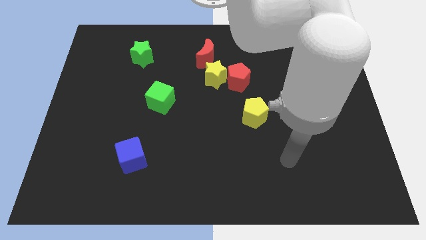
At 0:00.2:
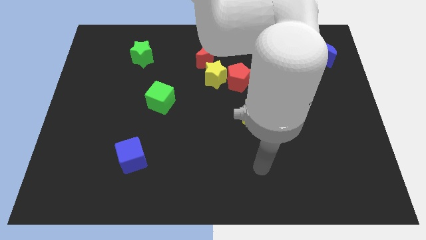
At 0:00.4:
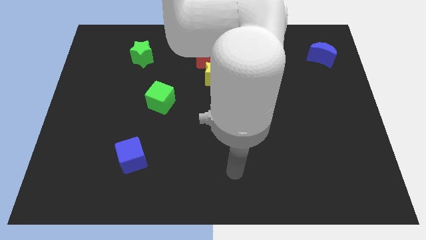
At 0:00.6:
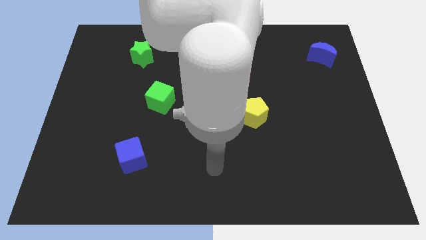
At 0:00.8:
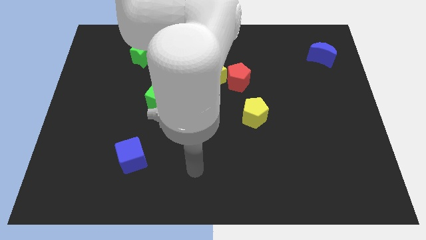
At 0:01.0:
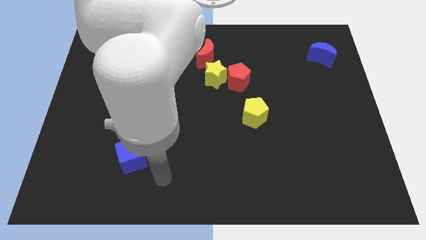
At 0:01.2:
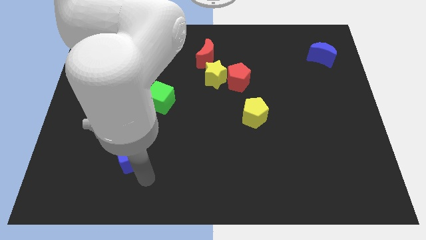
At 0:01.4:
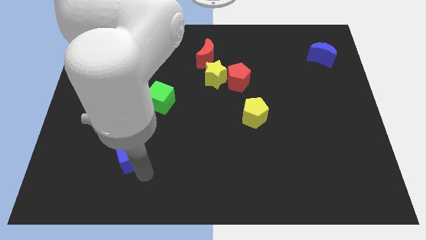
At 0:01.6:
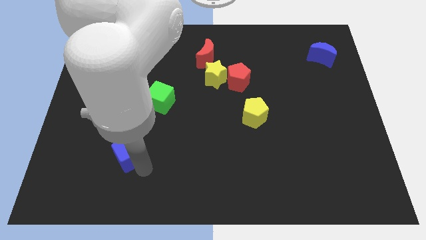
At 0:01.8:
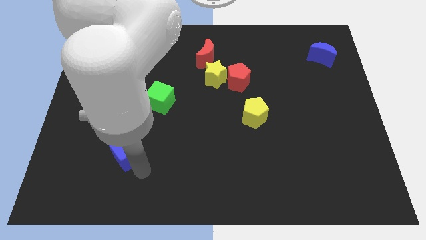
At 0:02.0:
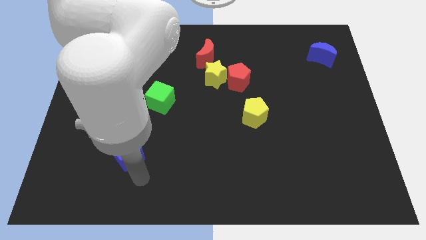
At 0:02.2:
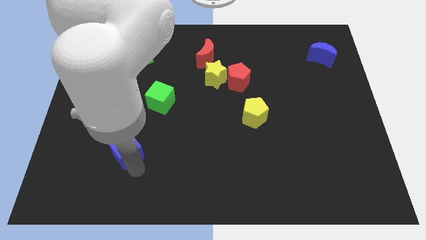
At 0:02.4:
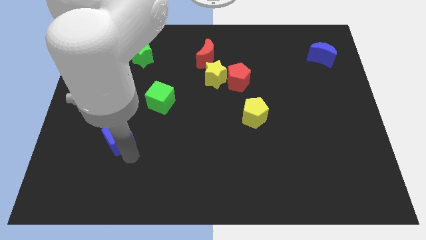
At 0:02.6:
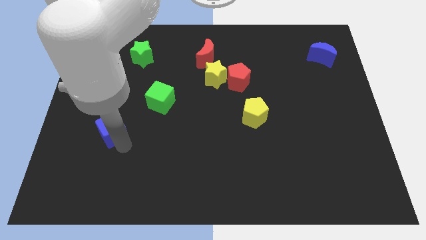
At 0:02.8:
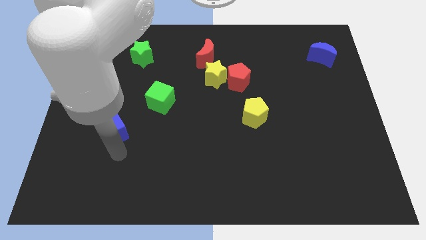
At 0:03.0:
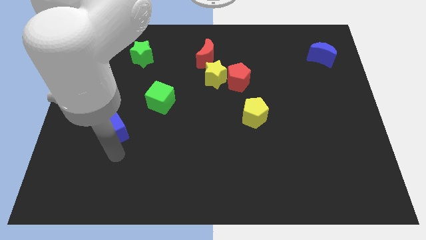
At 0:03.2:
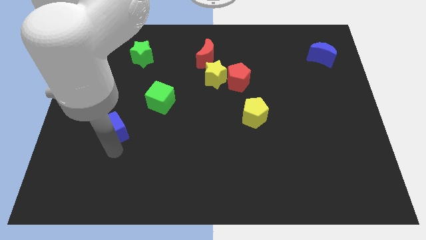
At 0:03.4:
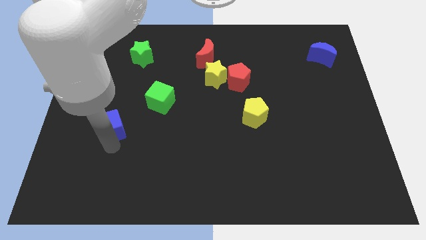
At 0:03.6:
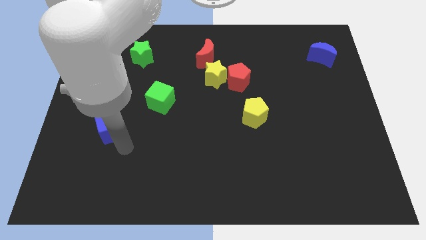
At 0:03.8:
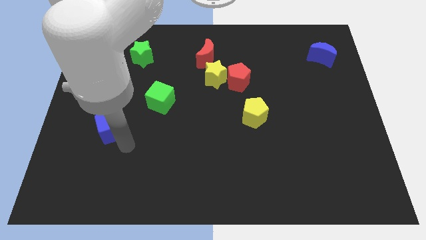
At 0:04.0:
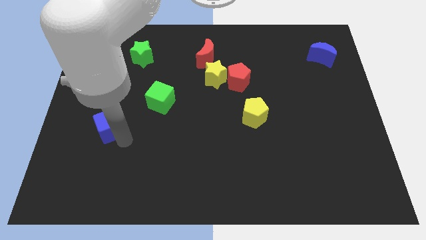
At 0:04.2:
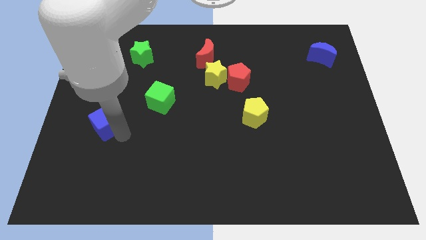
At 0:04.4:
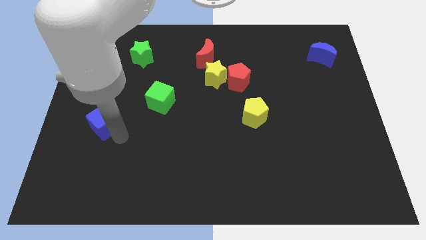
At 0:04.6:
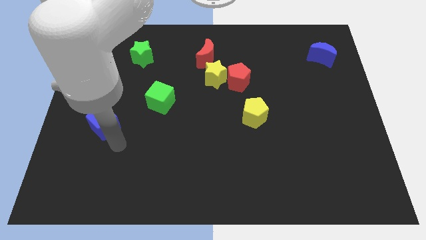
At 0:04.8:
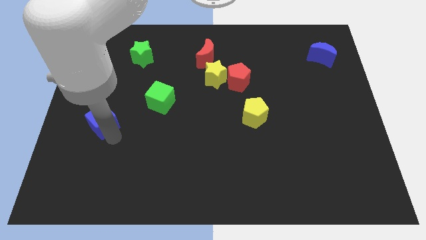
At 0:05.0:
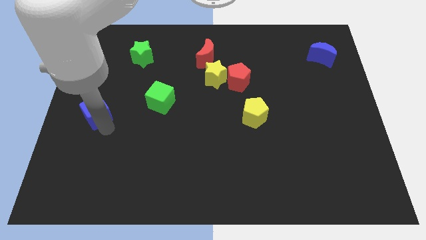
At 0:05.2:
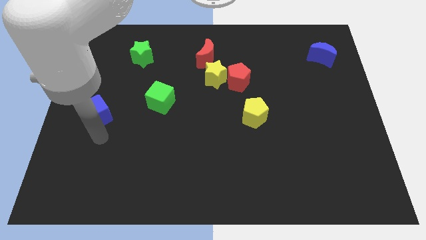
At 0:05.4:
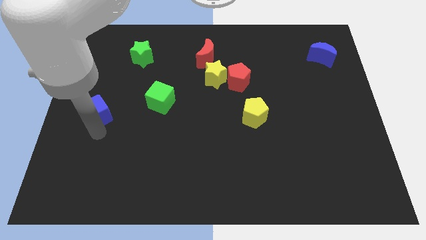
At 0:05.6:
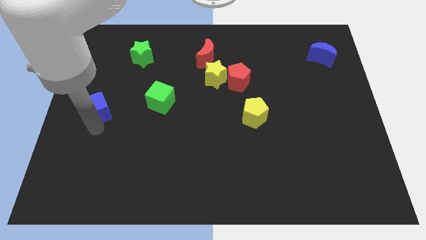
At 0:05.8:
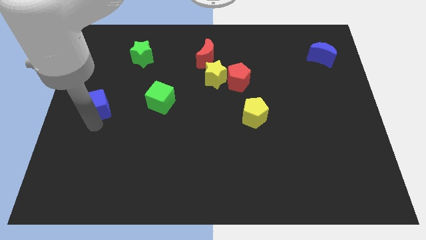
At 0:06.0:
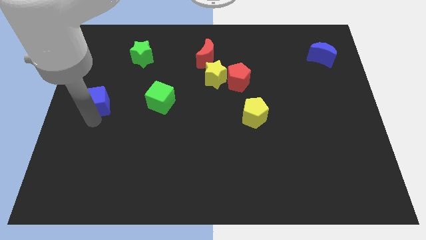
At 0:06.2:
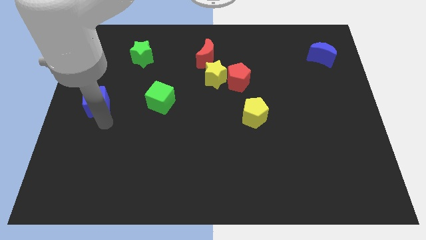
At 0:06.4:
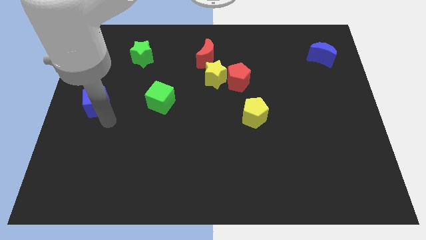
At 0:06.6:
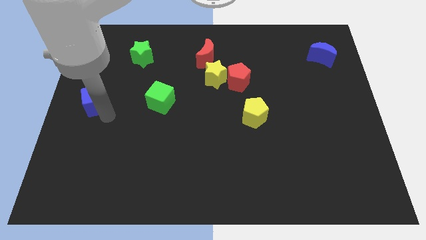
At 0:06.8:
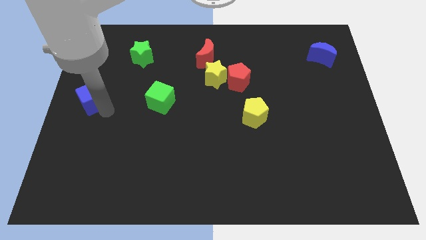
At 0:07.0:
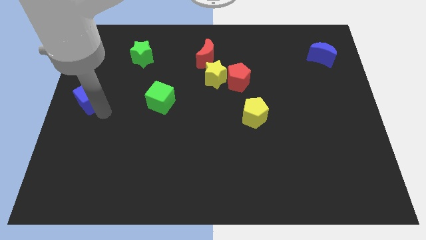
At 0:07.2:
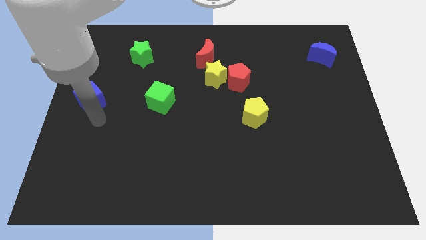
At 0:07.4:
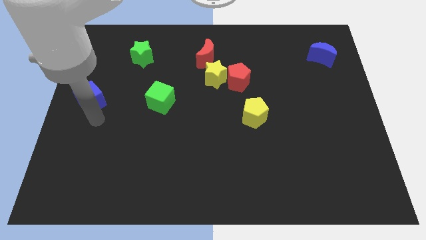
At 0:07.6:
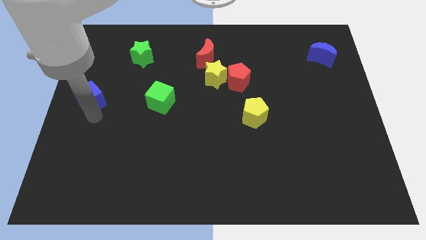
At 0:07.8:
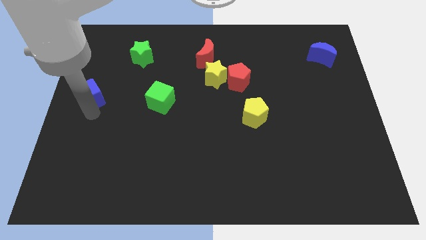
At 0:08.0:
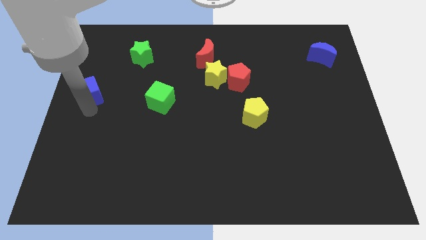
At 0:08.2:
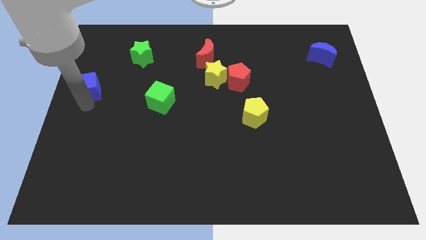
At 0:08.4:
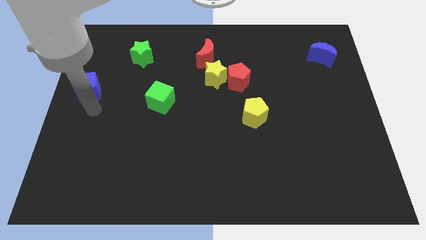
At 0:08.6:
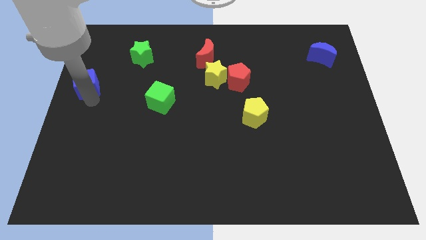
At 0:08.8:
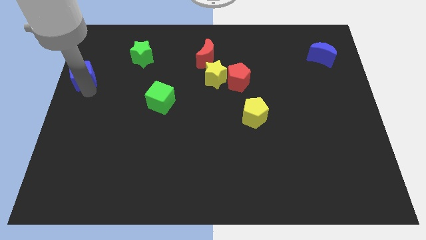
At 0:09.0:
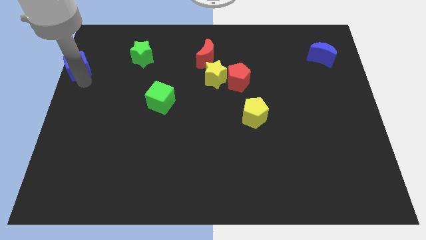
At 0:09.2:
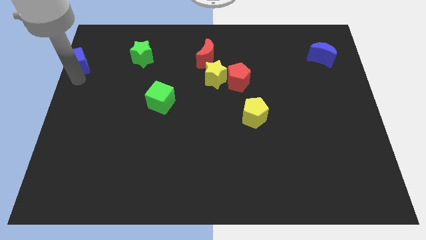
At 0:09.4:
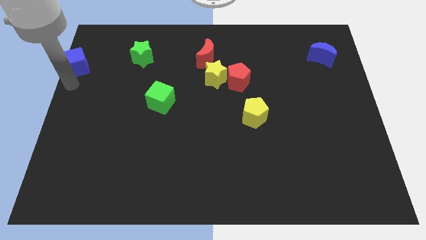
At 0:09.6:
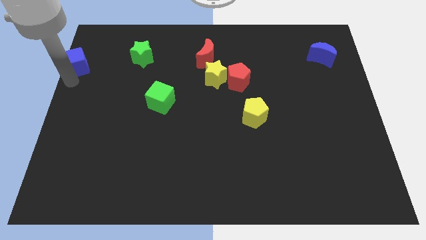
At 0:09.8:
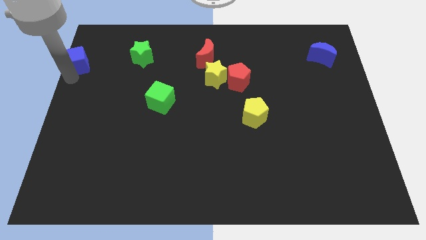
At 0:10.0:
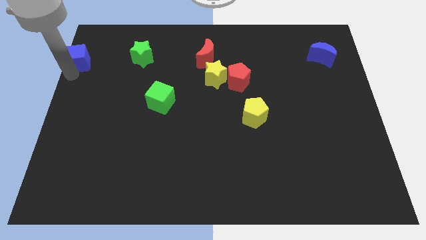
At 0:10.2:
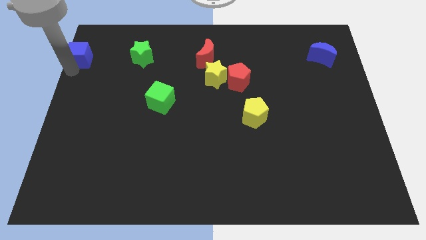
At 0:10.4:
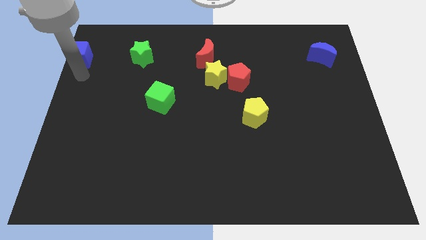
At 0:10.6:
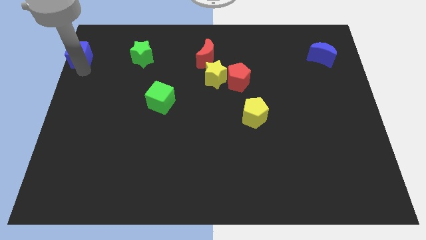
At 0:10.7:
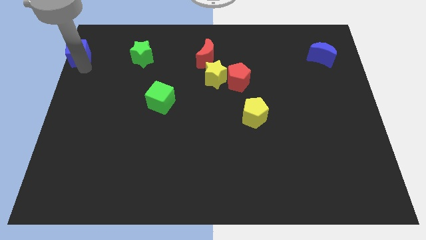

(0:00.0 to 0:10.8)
put the blue cube to the top left of the board

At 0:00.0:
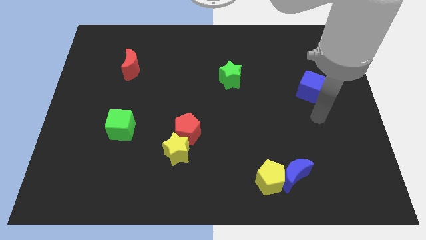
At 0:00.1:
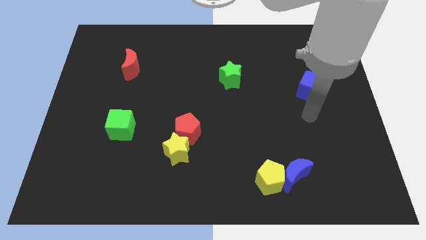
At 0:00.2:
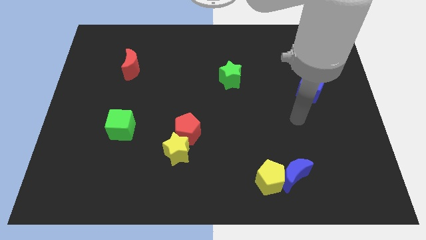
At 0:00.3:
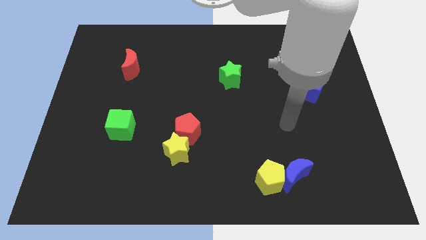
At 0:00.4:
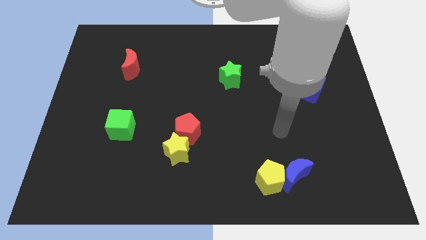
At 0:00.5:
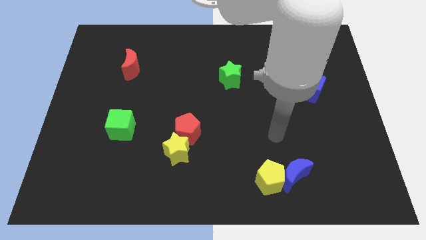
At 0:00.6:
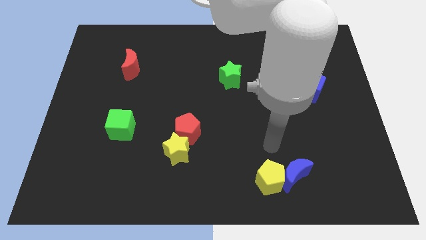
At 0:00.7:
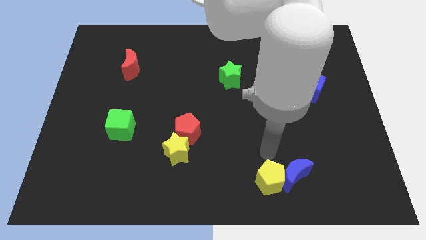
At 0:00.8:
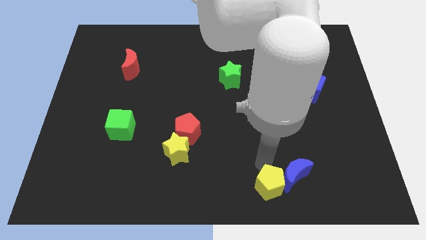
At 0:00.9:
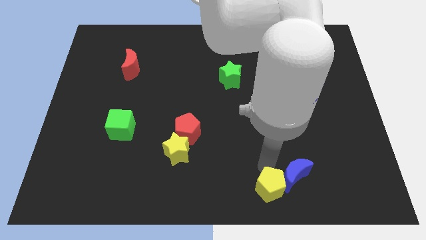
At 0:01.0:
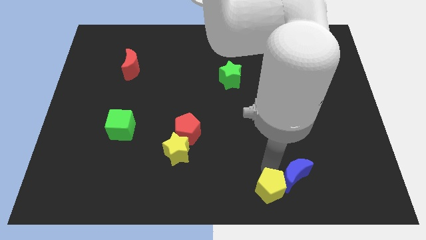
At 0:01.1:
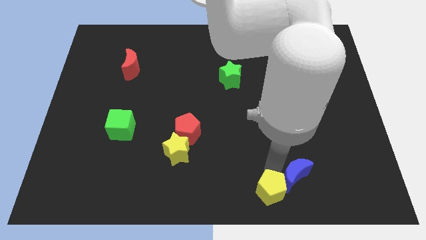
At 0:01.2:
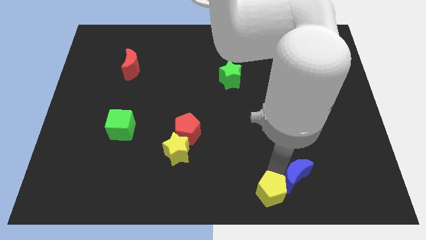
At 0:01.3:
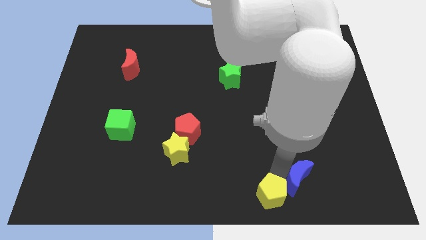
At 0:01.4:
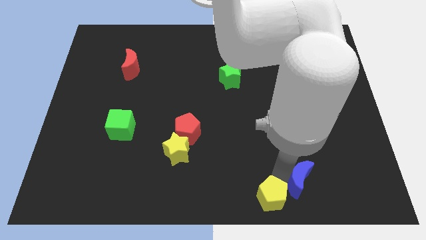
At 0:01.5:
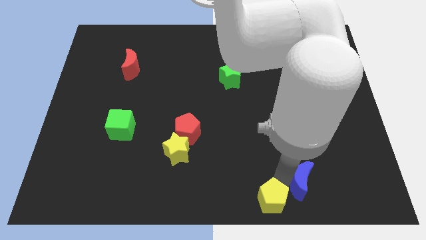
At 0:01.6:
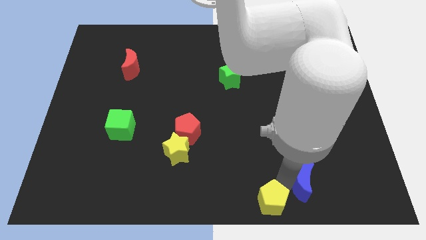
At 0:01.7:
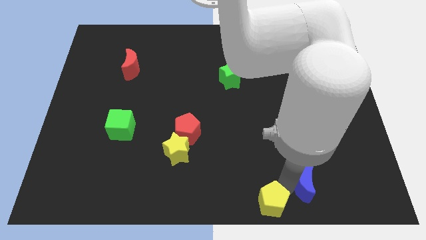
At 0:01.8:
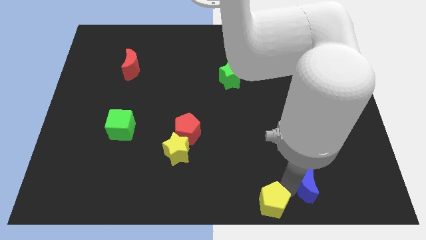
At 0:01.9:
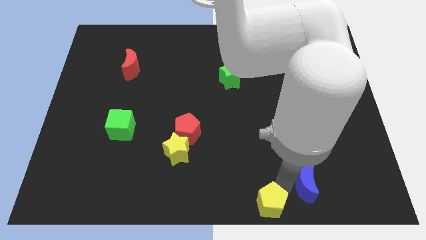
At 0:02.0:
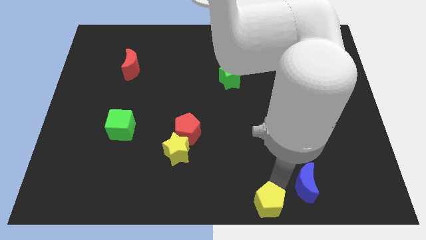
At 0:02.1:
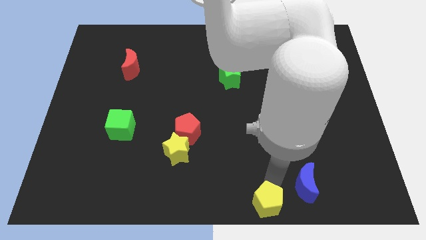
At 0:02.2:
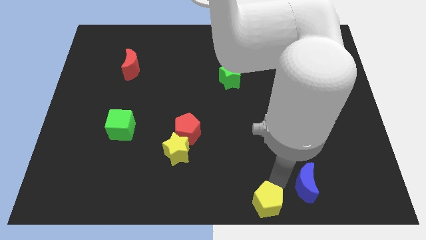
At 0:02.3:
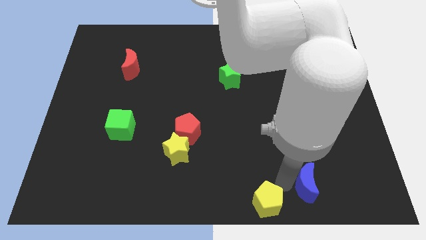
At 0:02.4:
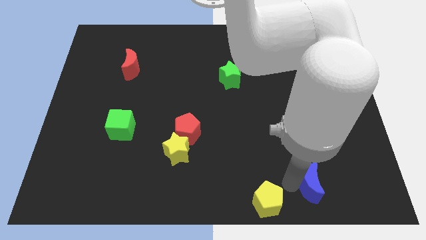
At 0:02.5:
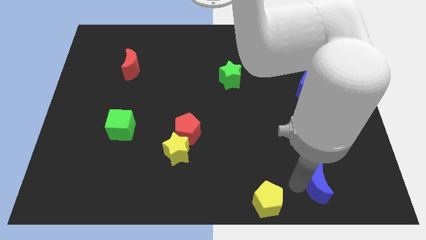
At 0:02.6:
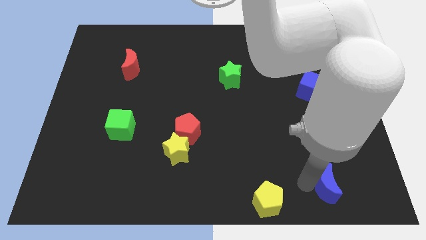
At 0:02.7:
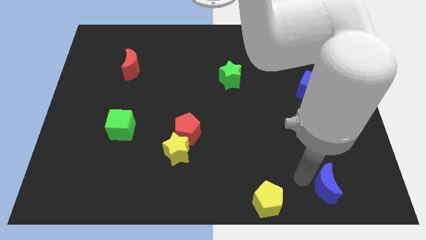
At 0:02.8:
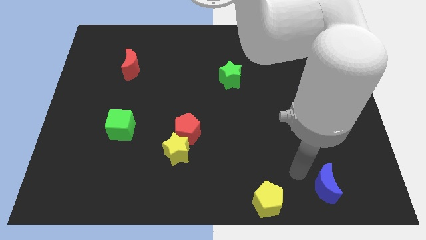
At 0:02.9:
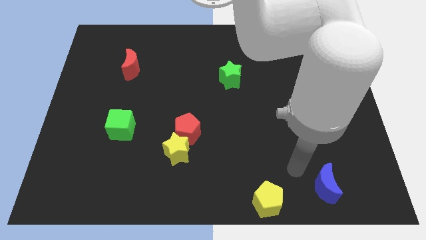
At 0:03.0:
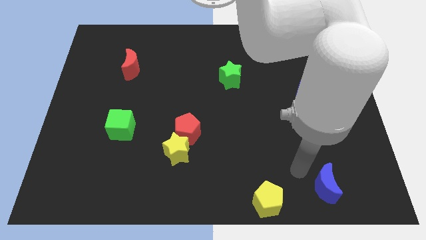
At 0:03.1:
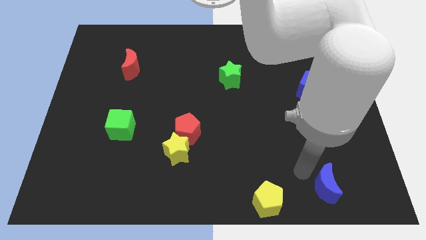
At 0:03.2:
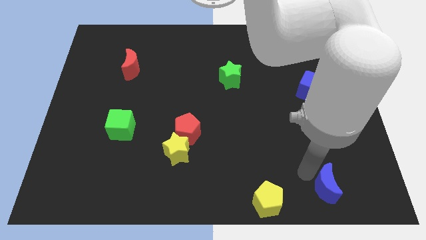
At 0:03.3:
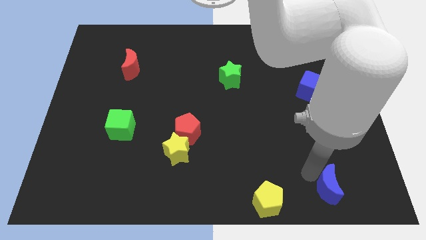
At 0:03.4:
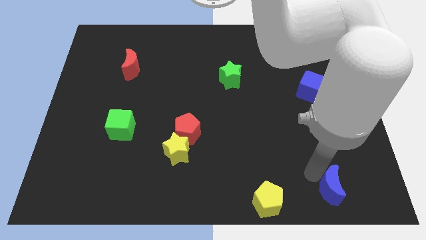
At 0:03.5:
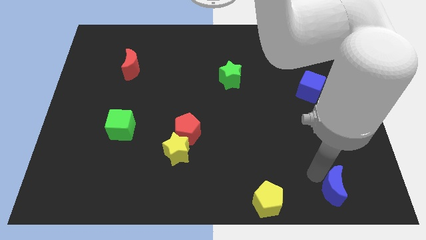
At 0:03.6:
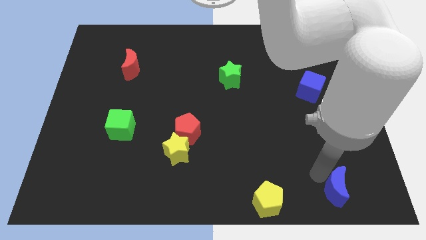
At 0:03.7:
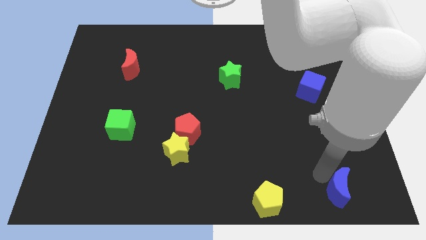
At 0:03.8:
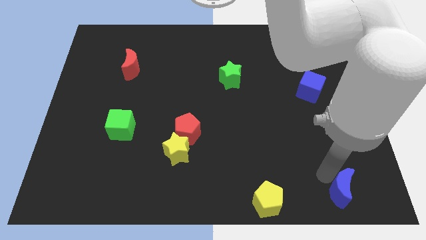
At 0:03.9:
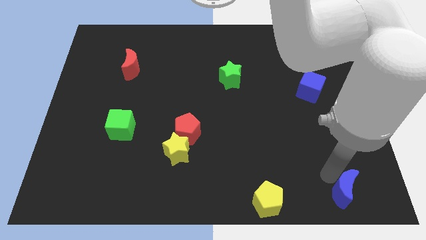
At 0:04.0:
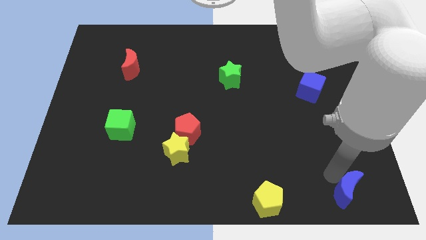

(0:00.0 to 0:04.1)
slide the blue moon to the bottom right corner
